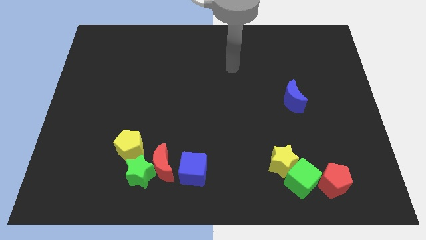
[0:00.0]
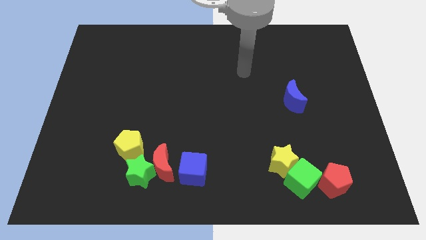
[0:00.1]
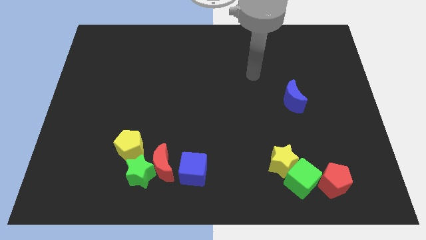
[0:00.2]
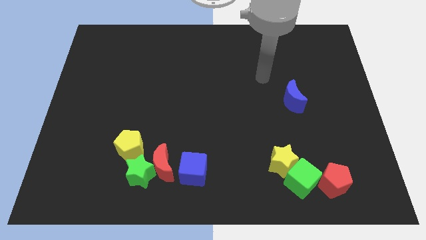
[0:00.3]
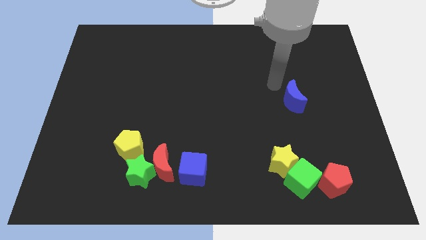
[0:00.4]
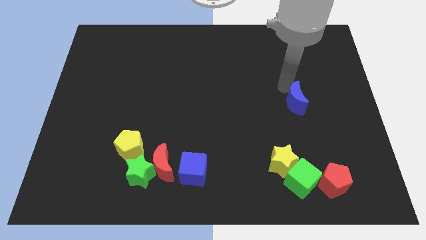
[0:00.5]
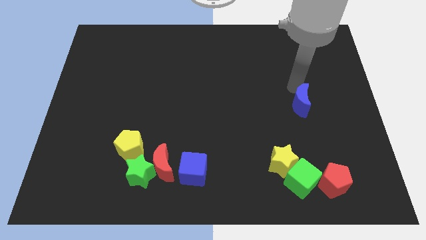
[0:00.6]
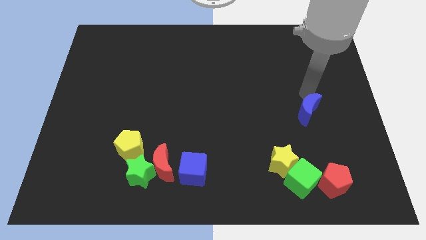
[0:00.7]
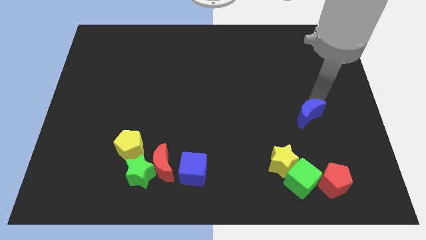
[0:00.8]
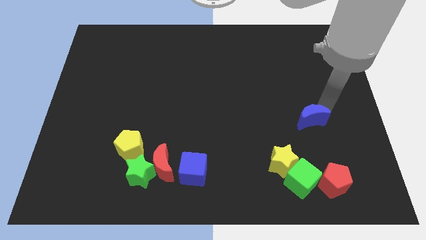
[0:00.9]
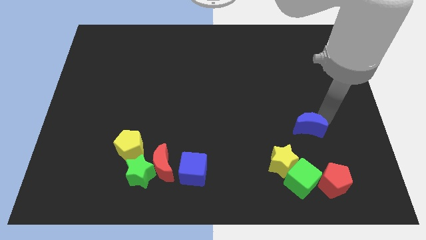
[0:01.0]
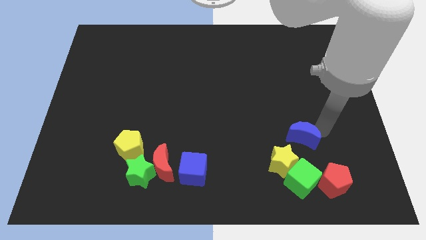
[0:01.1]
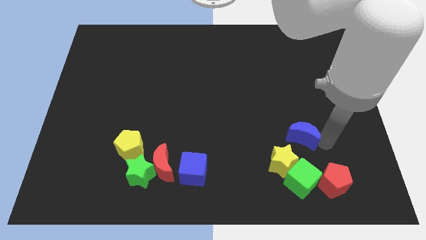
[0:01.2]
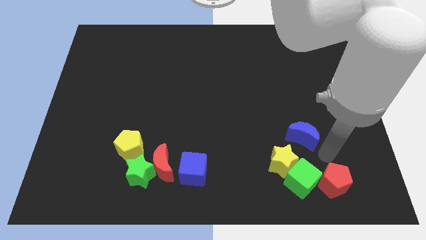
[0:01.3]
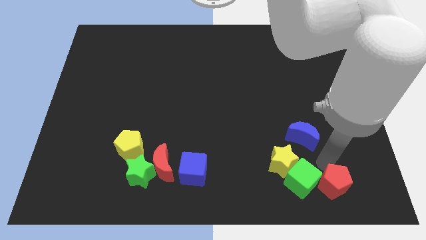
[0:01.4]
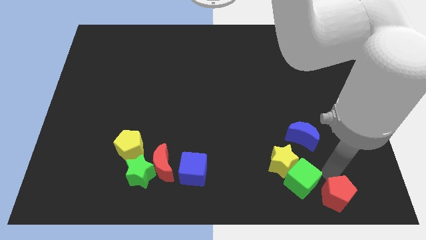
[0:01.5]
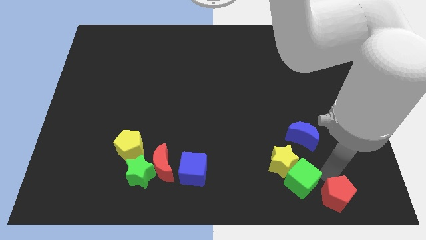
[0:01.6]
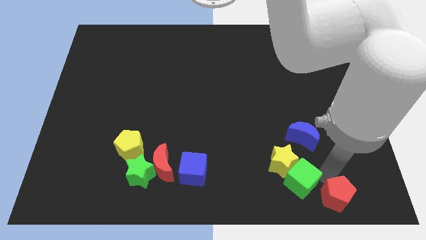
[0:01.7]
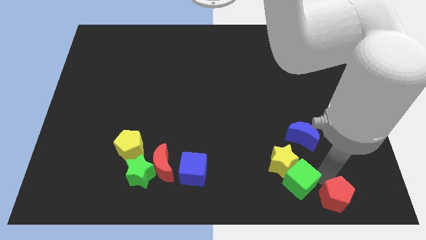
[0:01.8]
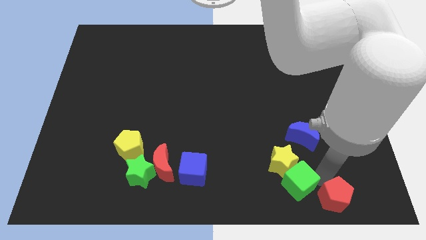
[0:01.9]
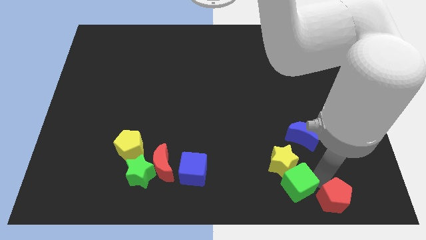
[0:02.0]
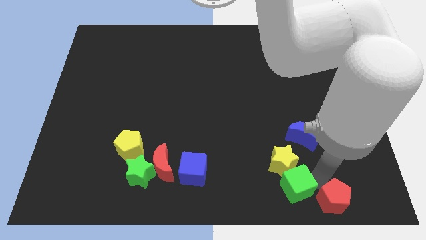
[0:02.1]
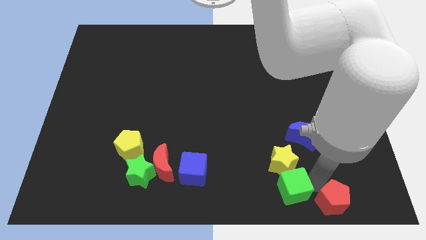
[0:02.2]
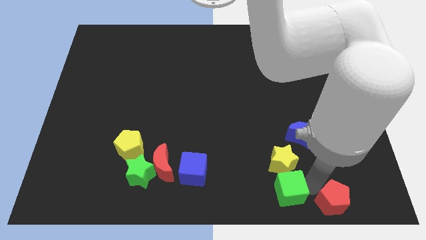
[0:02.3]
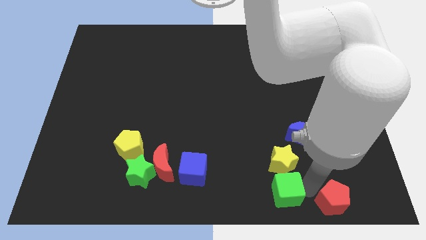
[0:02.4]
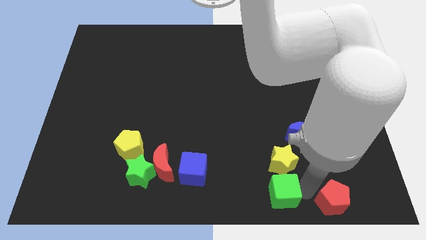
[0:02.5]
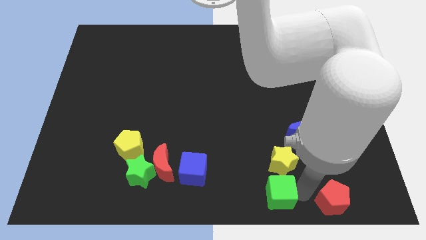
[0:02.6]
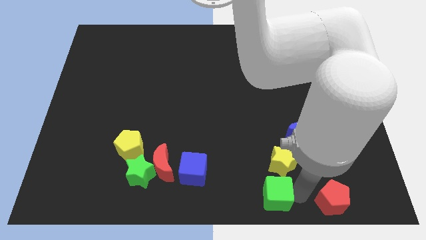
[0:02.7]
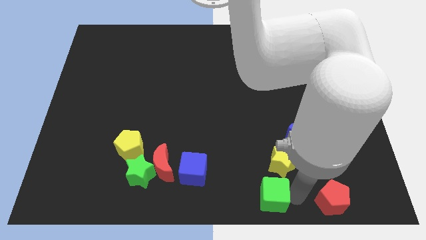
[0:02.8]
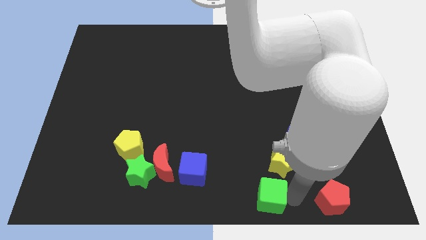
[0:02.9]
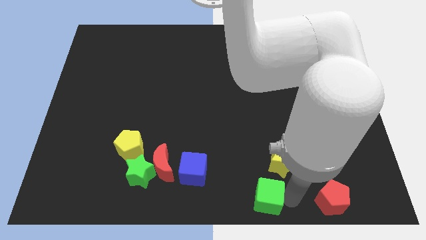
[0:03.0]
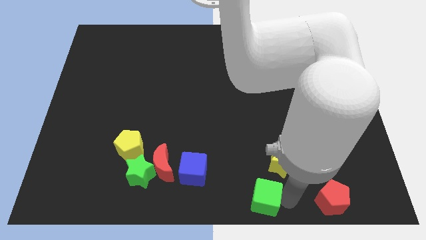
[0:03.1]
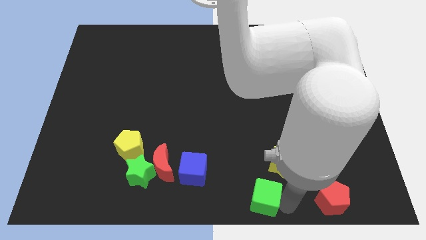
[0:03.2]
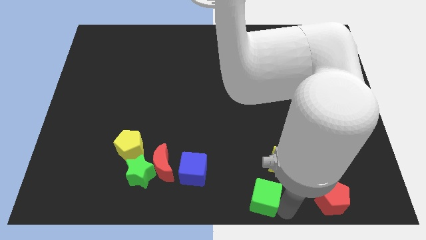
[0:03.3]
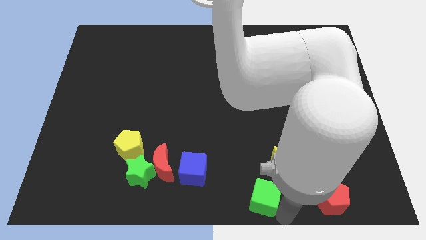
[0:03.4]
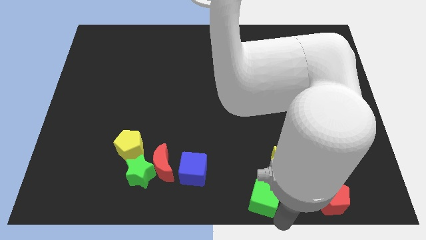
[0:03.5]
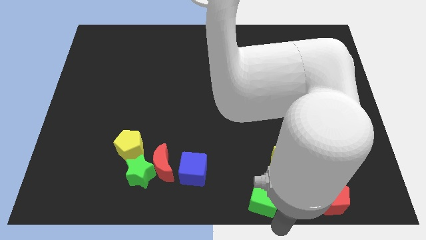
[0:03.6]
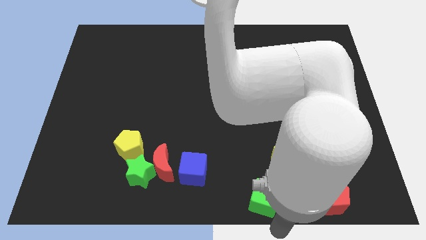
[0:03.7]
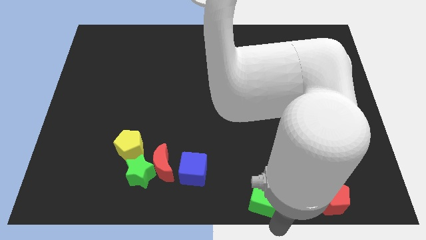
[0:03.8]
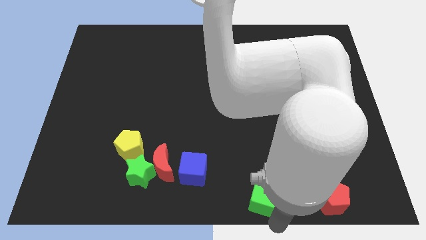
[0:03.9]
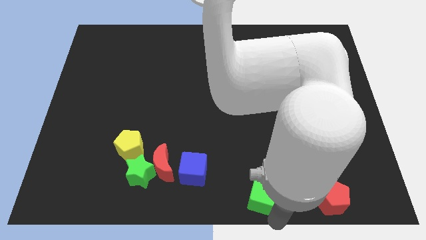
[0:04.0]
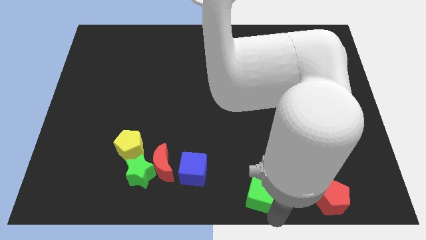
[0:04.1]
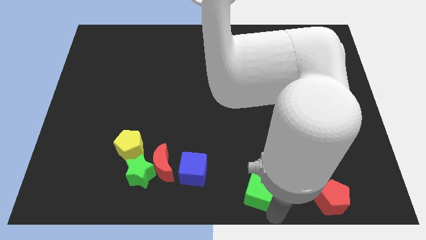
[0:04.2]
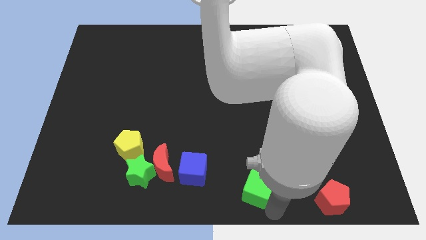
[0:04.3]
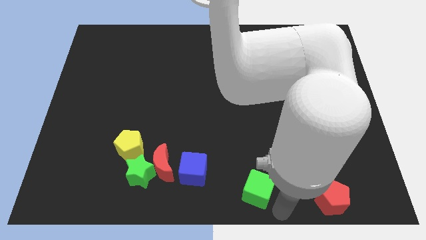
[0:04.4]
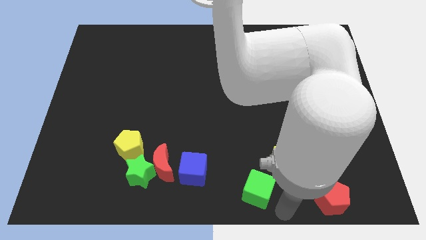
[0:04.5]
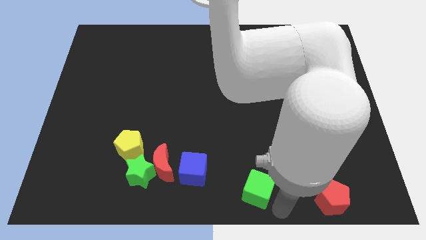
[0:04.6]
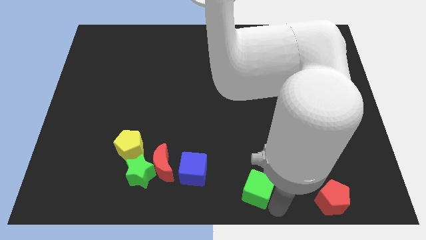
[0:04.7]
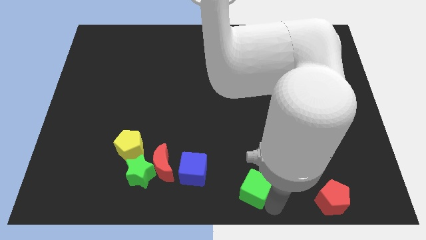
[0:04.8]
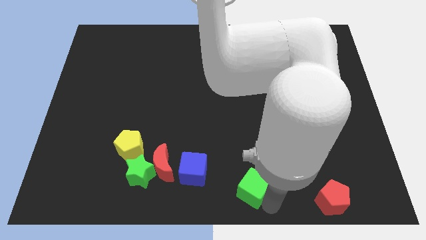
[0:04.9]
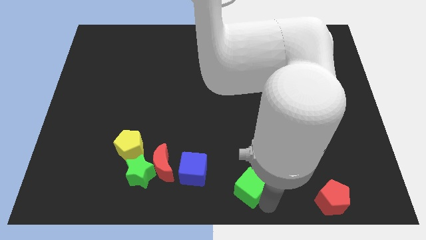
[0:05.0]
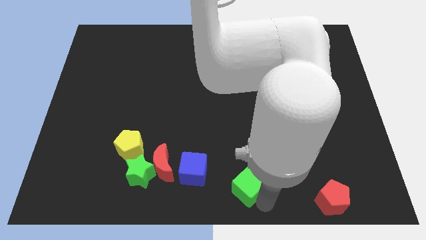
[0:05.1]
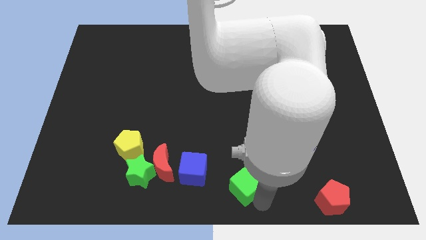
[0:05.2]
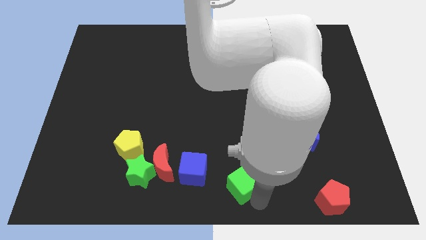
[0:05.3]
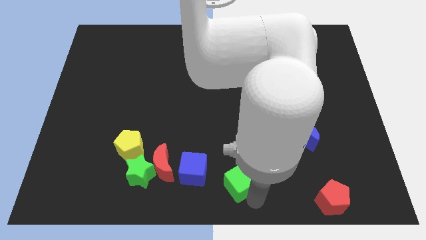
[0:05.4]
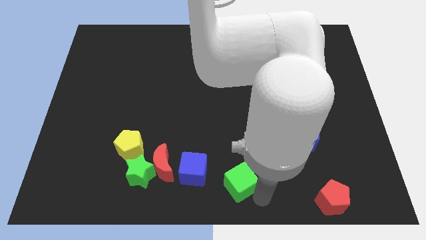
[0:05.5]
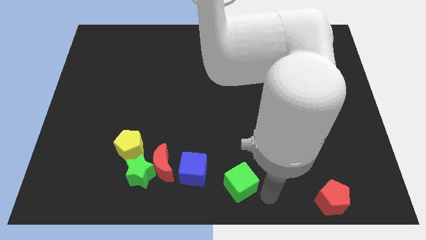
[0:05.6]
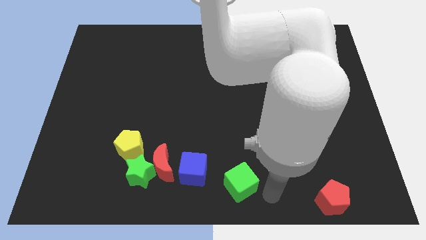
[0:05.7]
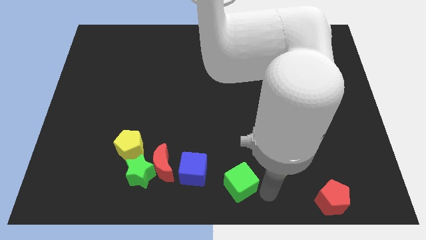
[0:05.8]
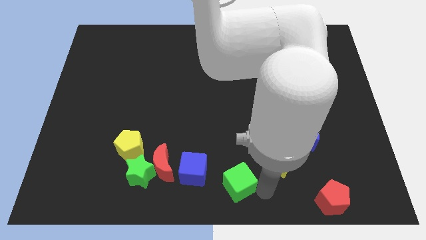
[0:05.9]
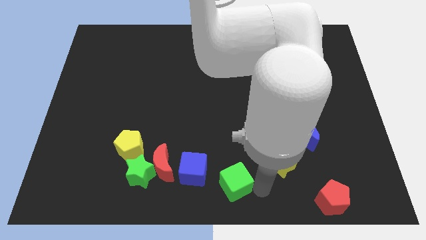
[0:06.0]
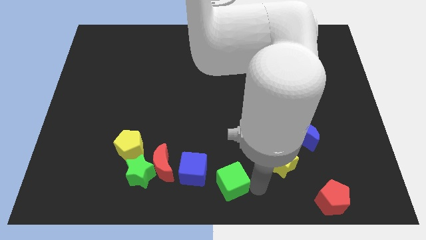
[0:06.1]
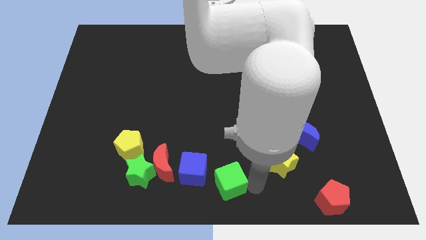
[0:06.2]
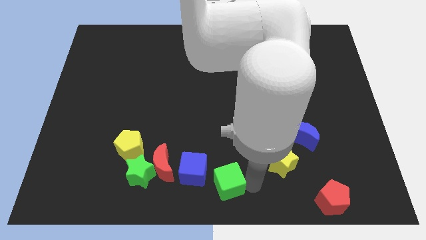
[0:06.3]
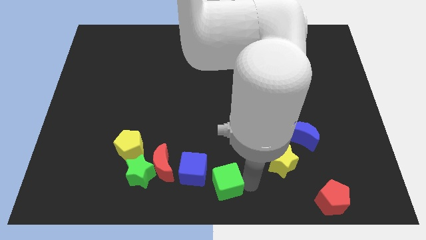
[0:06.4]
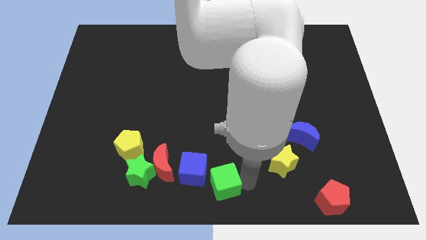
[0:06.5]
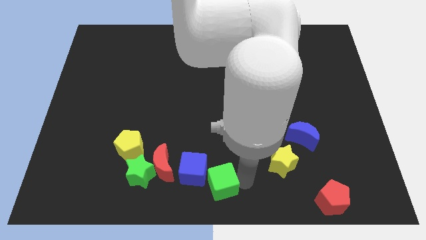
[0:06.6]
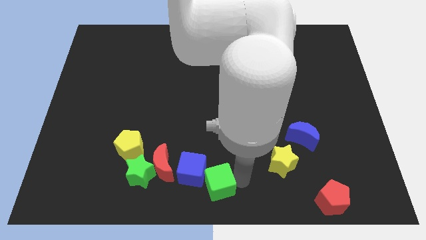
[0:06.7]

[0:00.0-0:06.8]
slide the green cube towards the blue cube
